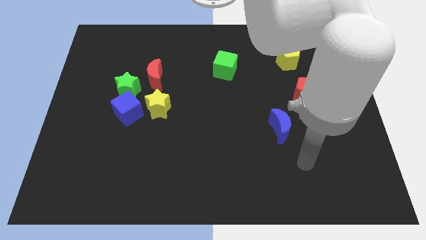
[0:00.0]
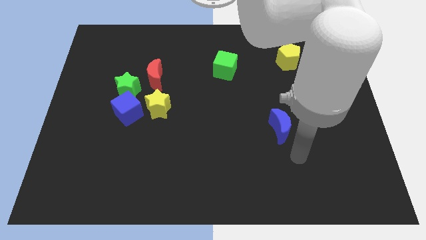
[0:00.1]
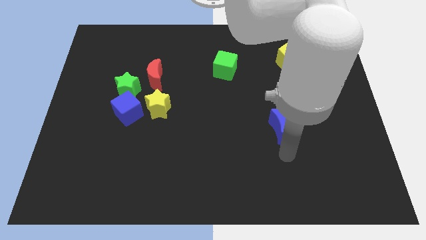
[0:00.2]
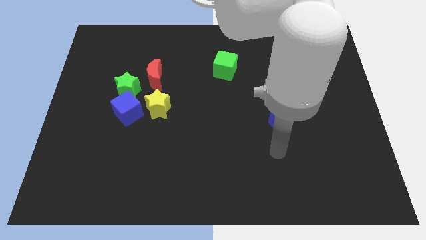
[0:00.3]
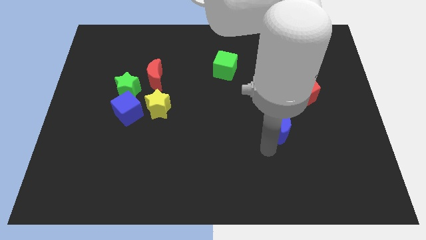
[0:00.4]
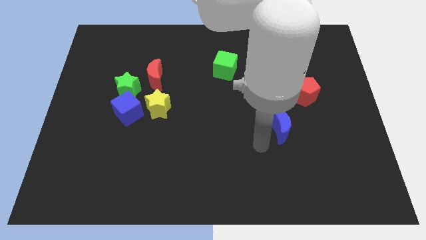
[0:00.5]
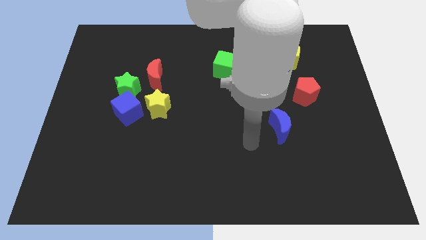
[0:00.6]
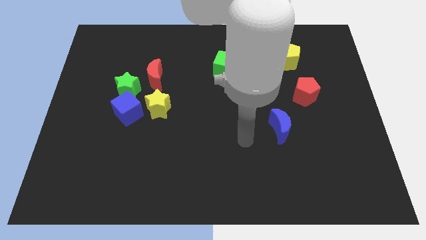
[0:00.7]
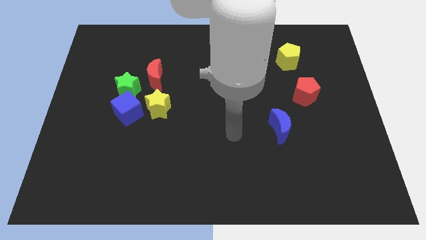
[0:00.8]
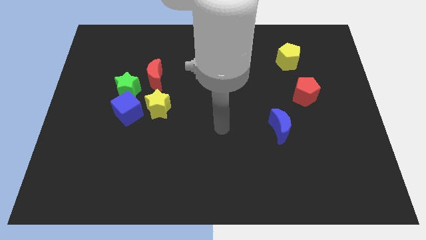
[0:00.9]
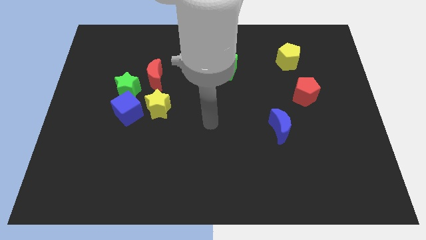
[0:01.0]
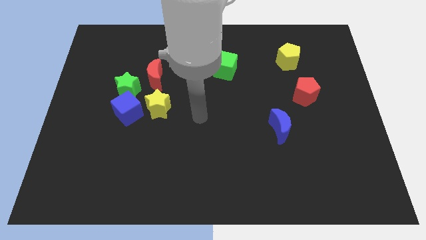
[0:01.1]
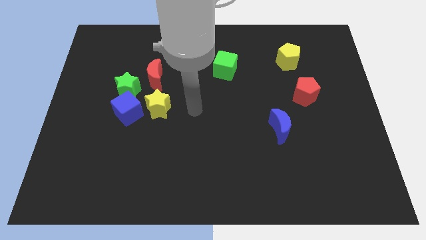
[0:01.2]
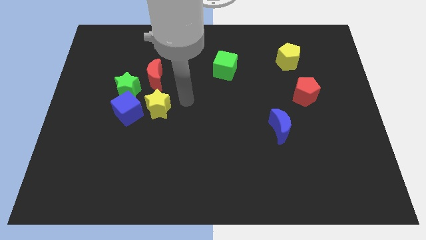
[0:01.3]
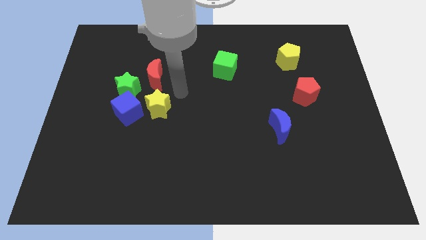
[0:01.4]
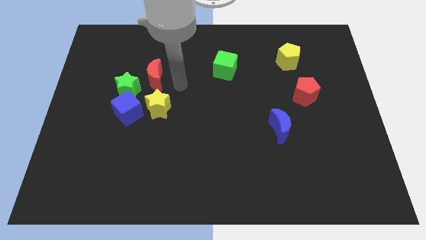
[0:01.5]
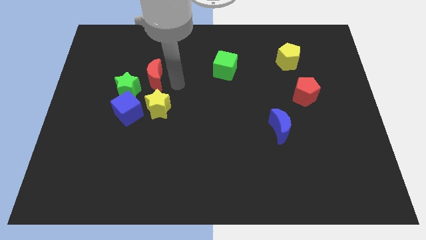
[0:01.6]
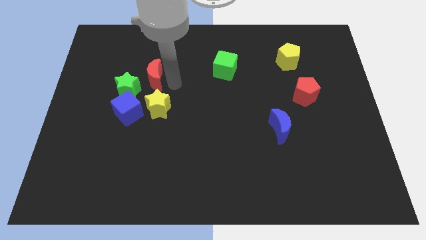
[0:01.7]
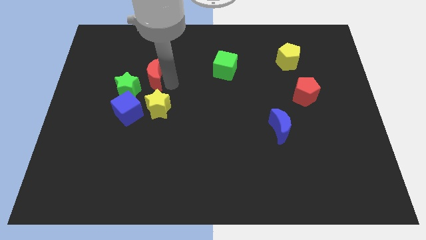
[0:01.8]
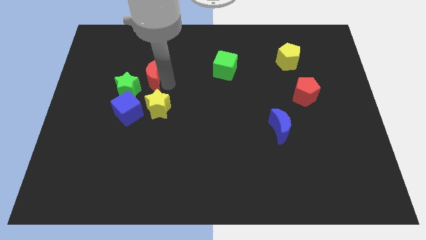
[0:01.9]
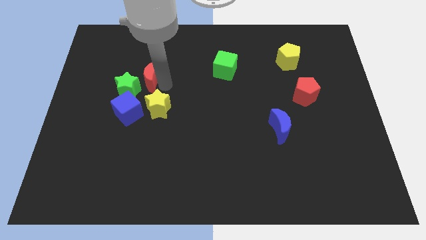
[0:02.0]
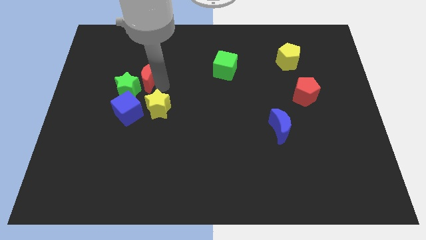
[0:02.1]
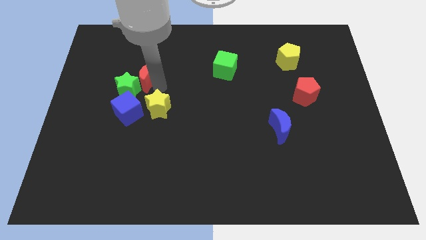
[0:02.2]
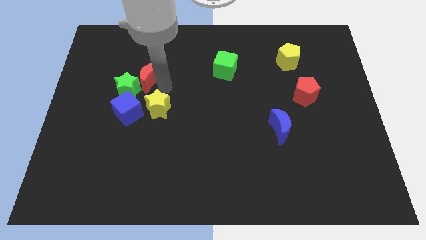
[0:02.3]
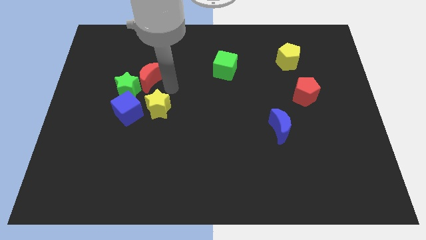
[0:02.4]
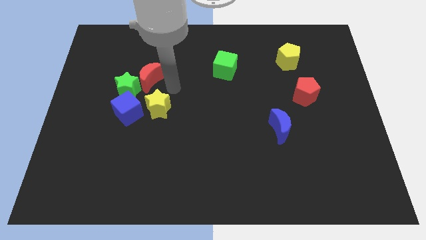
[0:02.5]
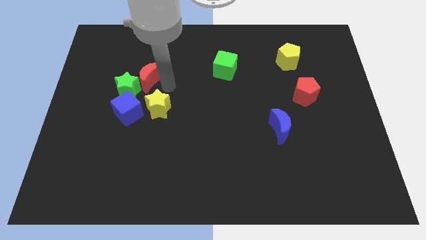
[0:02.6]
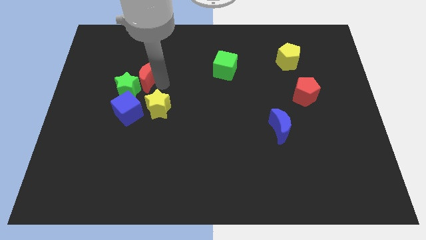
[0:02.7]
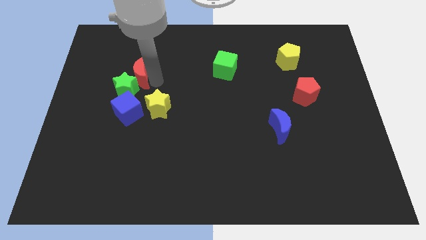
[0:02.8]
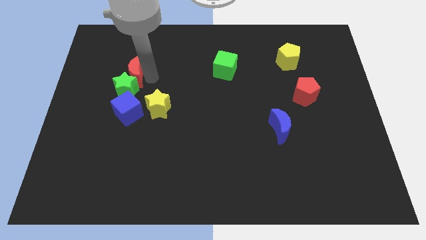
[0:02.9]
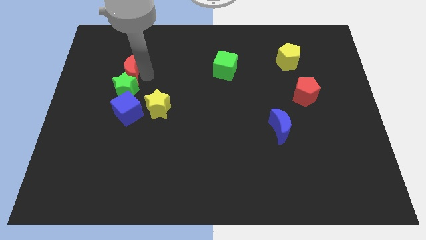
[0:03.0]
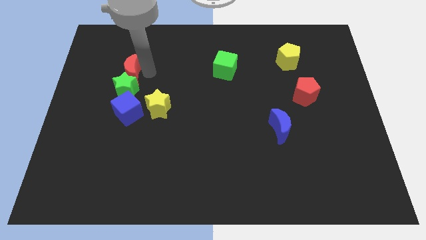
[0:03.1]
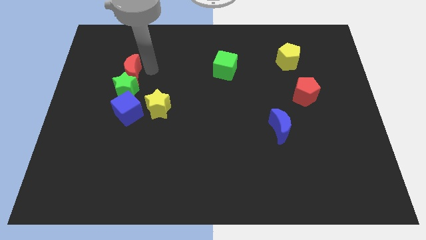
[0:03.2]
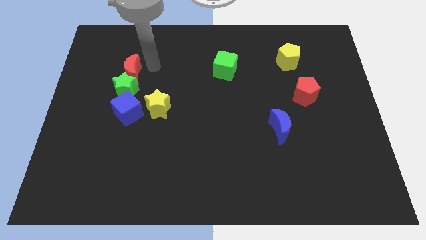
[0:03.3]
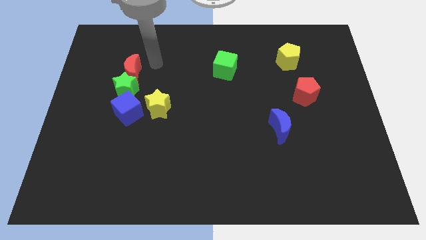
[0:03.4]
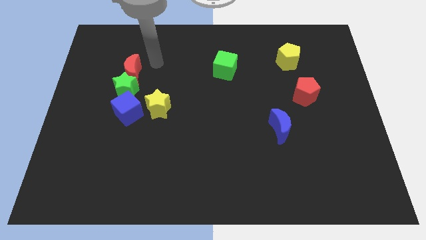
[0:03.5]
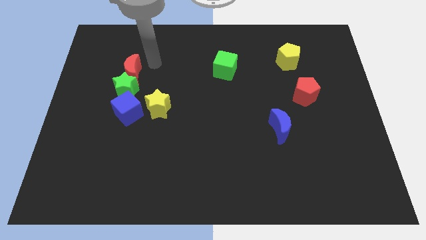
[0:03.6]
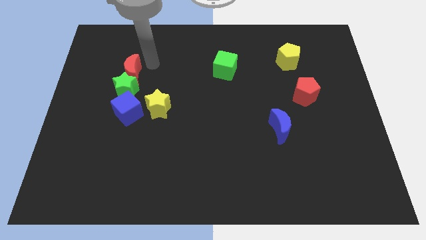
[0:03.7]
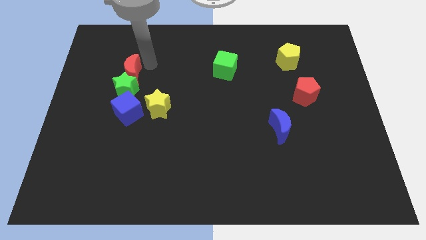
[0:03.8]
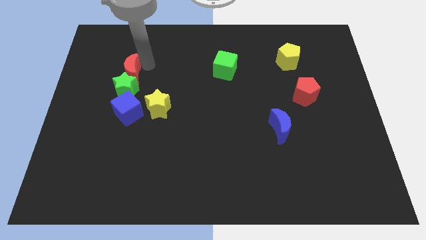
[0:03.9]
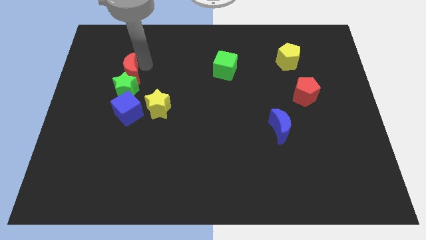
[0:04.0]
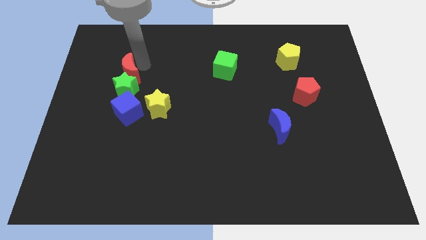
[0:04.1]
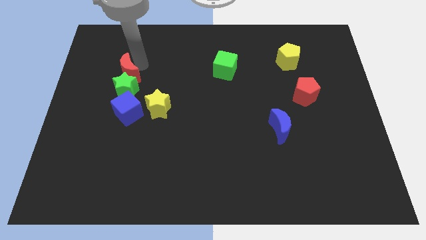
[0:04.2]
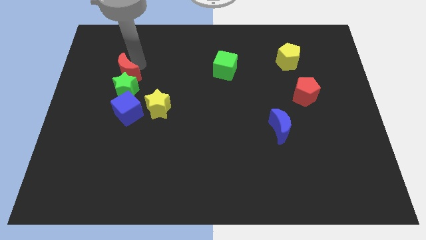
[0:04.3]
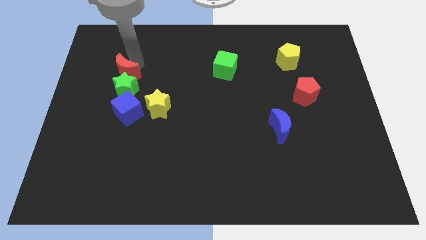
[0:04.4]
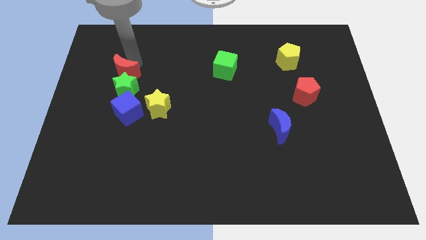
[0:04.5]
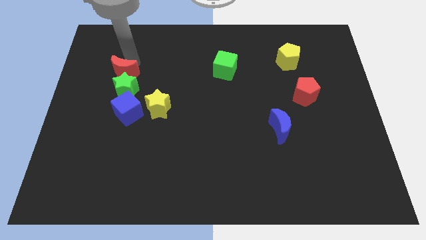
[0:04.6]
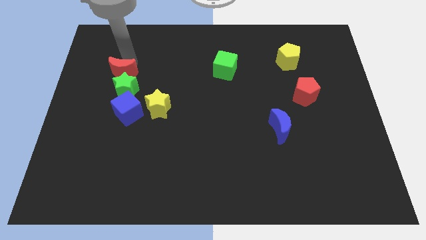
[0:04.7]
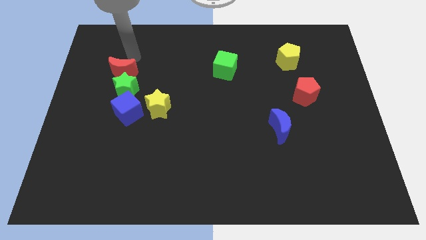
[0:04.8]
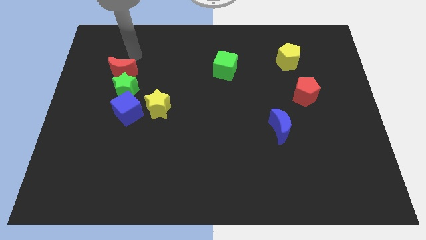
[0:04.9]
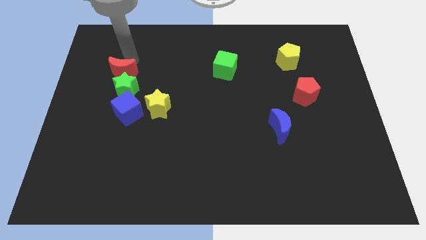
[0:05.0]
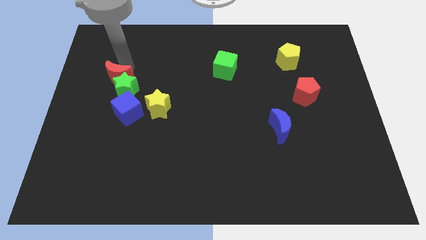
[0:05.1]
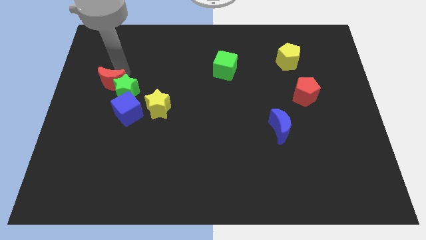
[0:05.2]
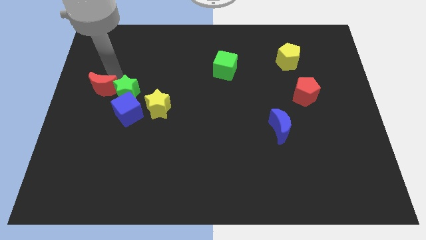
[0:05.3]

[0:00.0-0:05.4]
move the red moon to the bottom left of the green star

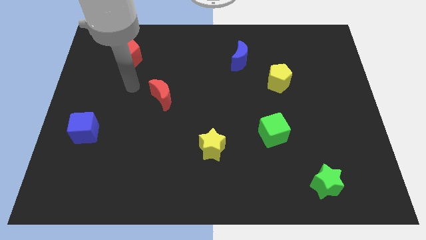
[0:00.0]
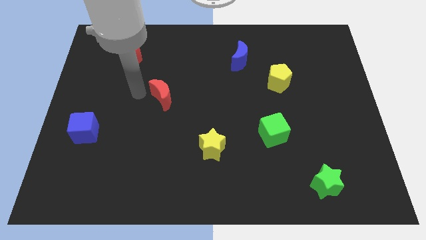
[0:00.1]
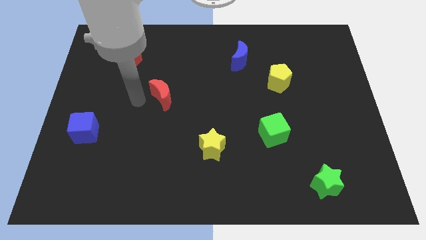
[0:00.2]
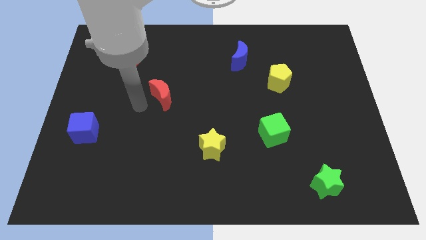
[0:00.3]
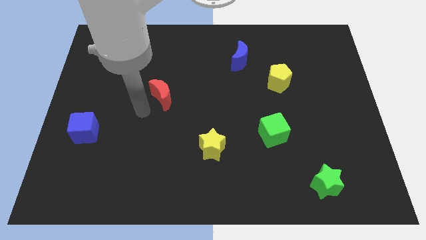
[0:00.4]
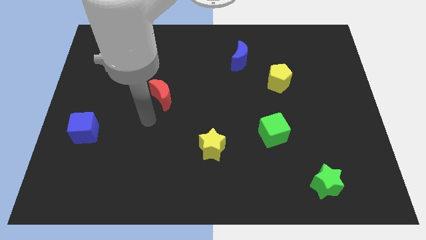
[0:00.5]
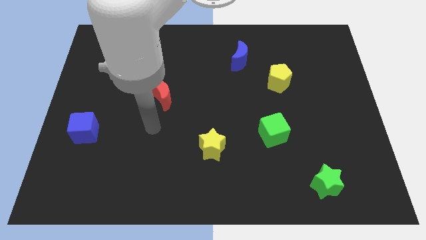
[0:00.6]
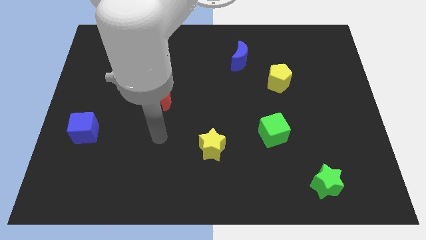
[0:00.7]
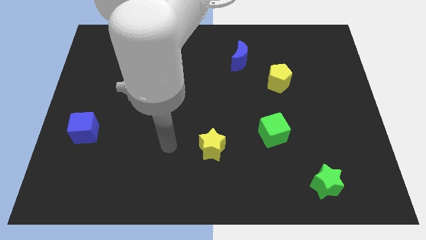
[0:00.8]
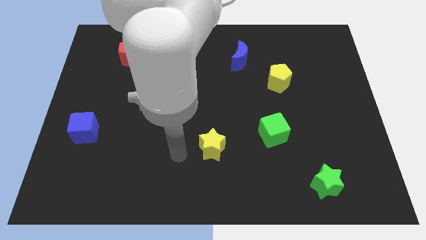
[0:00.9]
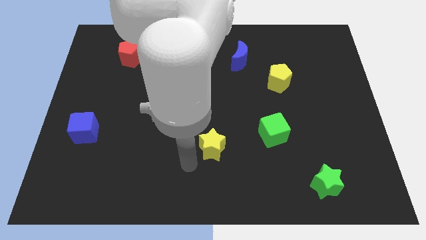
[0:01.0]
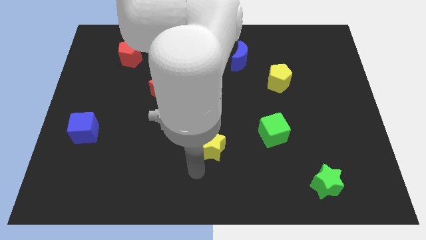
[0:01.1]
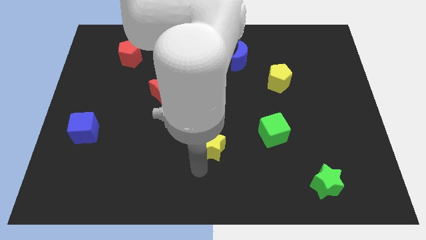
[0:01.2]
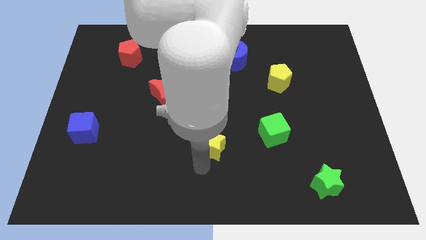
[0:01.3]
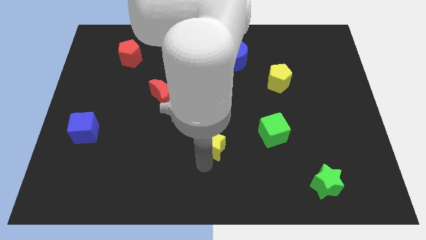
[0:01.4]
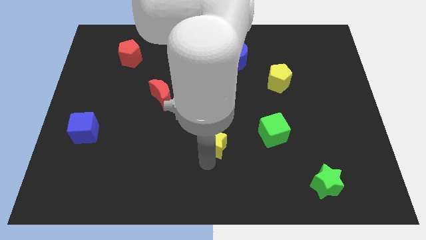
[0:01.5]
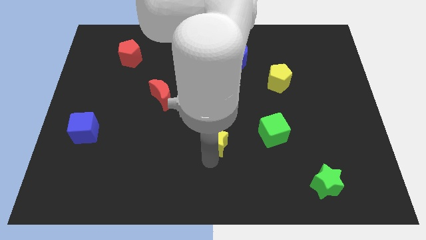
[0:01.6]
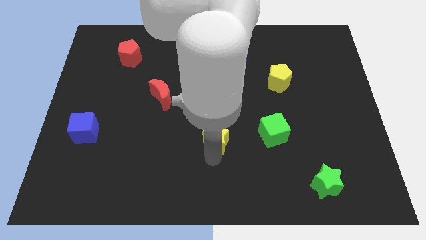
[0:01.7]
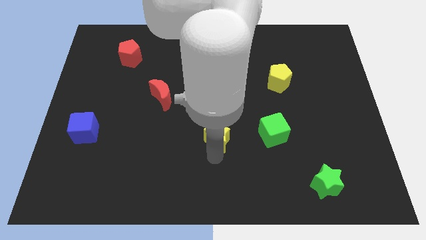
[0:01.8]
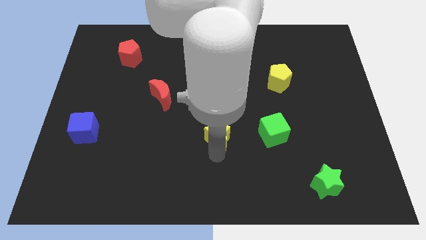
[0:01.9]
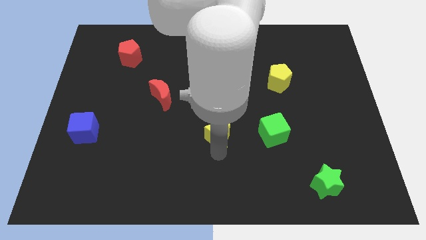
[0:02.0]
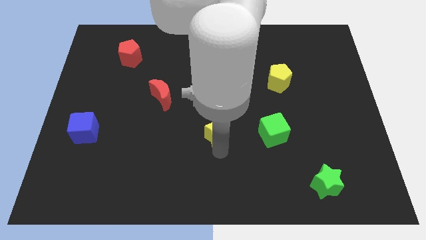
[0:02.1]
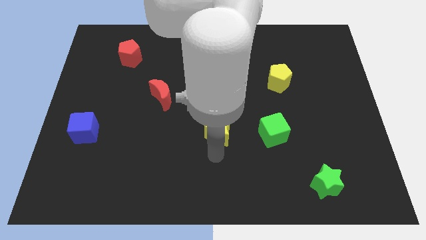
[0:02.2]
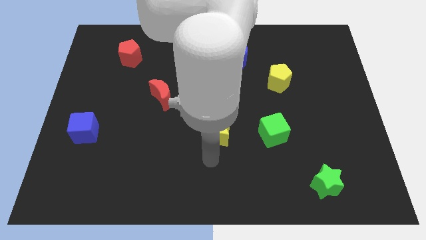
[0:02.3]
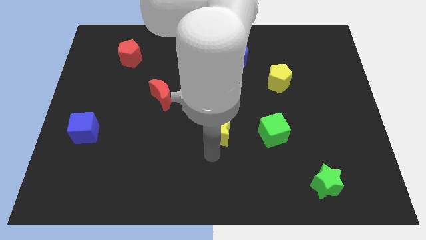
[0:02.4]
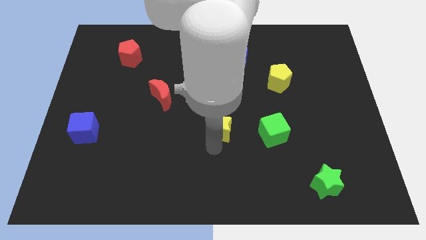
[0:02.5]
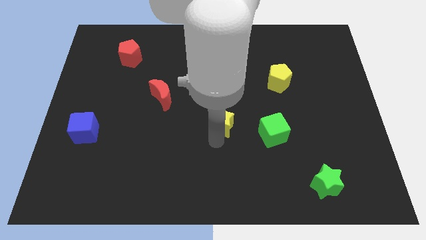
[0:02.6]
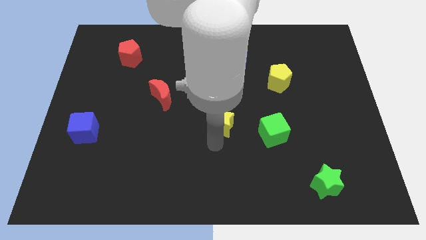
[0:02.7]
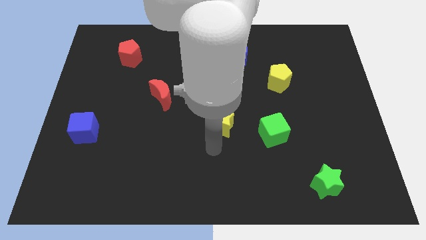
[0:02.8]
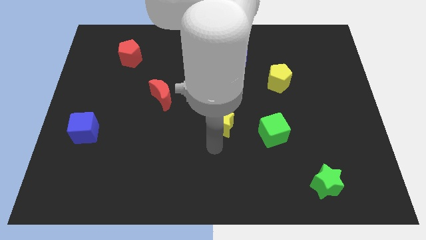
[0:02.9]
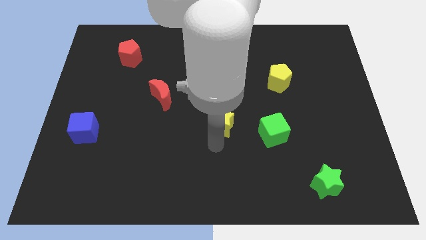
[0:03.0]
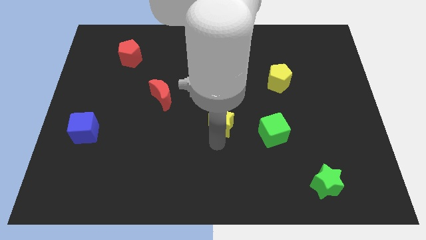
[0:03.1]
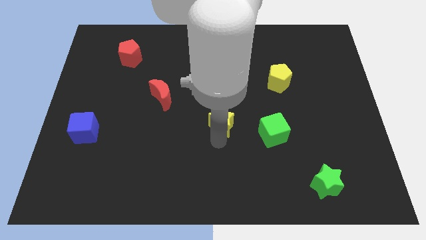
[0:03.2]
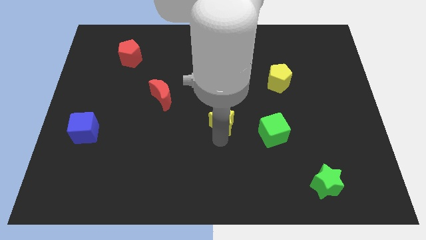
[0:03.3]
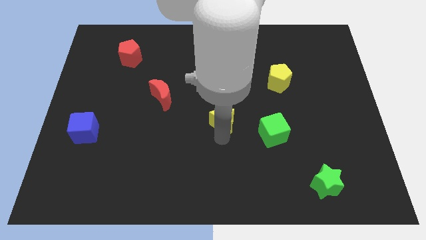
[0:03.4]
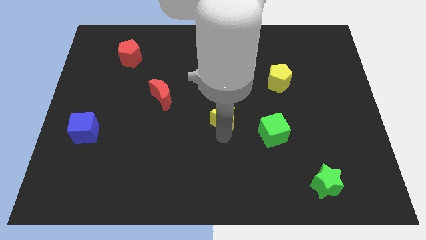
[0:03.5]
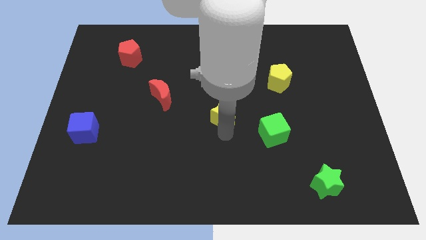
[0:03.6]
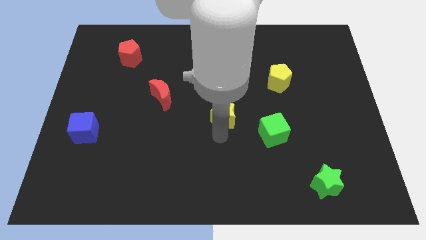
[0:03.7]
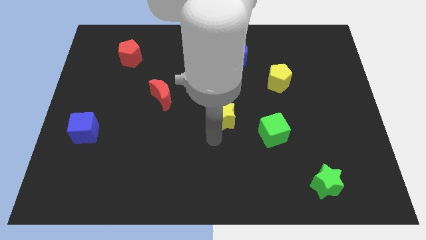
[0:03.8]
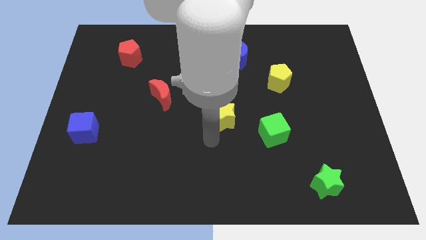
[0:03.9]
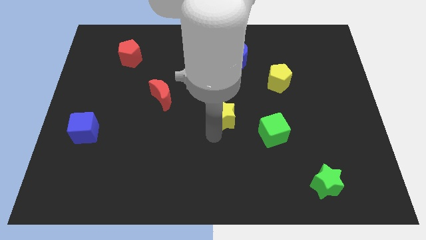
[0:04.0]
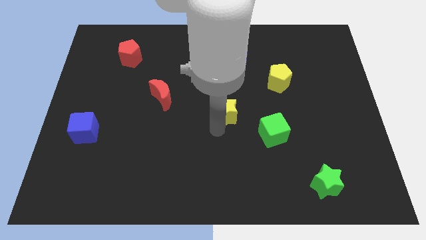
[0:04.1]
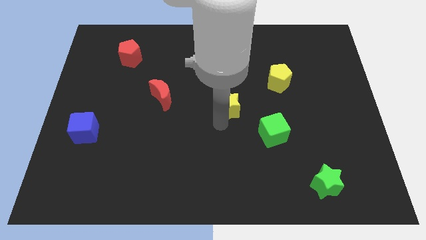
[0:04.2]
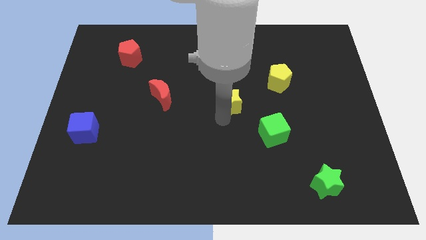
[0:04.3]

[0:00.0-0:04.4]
slide the yellow star to the bottom of the blue moon
